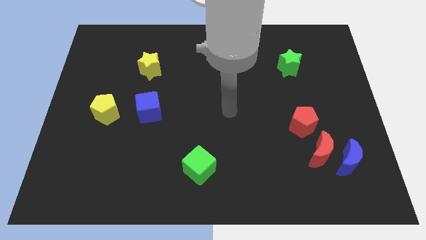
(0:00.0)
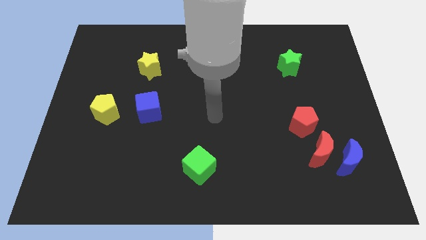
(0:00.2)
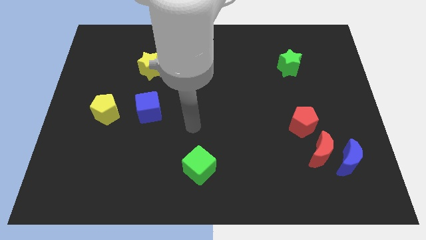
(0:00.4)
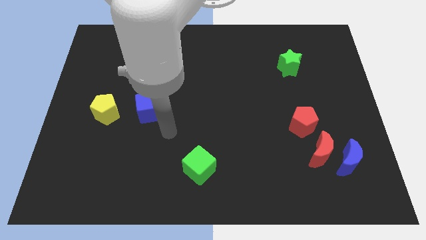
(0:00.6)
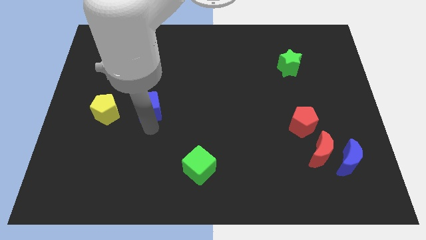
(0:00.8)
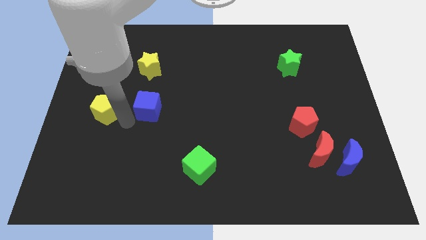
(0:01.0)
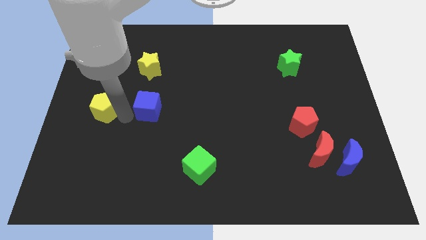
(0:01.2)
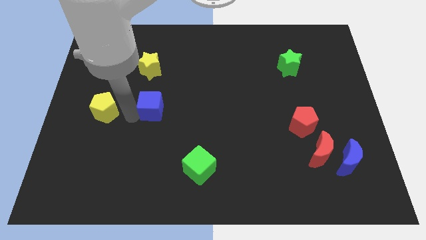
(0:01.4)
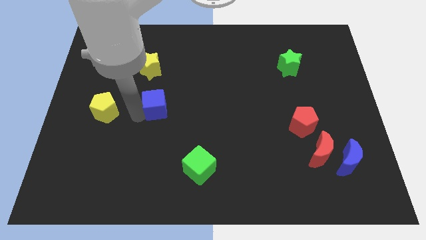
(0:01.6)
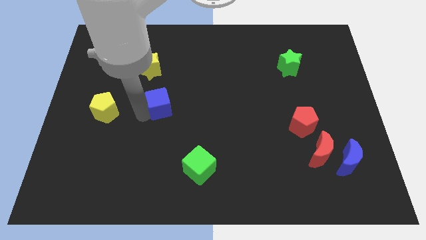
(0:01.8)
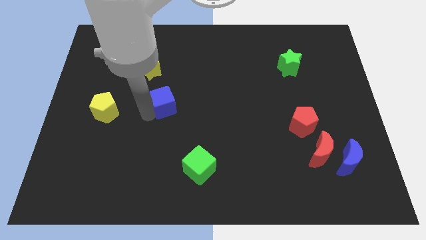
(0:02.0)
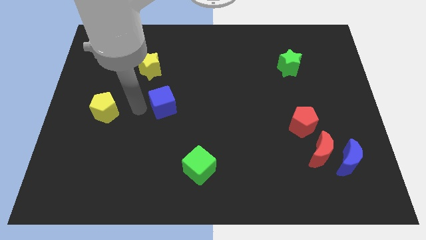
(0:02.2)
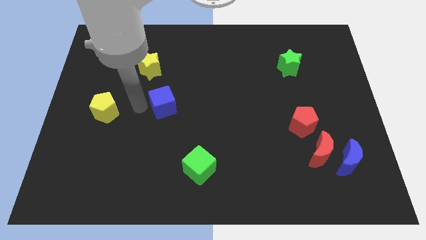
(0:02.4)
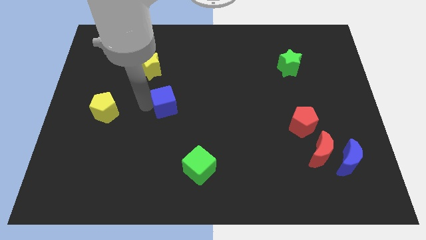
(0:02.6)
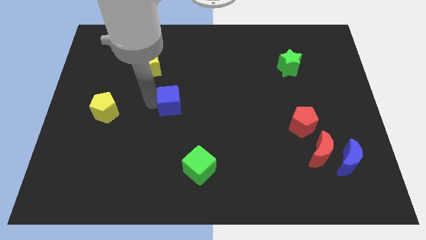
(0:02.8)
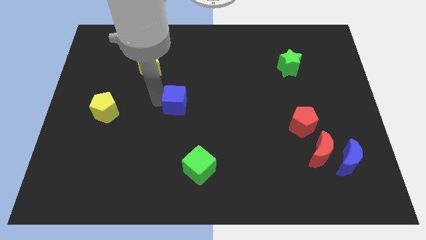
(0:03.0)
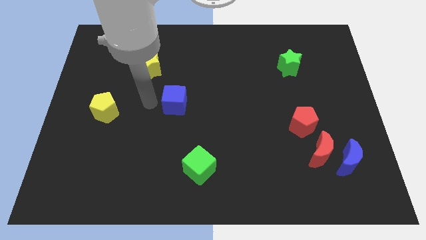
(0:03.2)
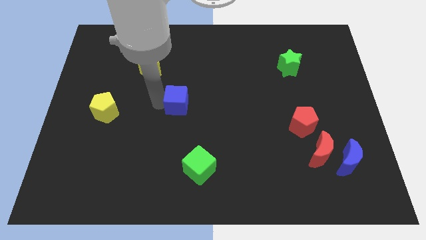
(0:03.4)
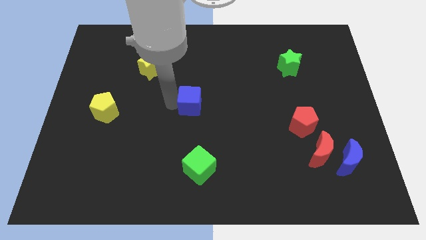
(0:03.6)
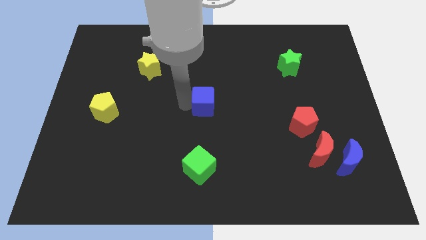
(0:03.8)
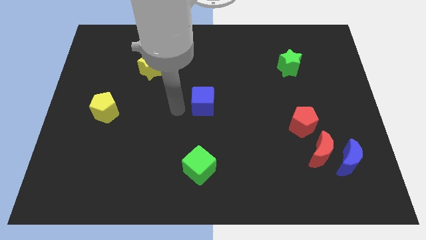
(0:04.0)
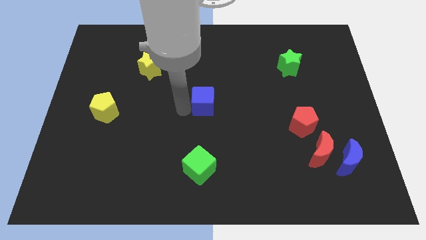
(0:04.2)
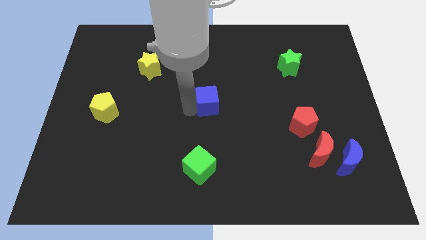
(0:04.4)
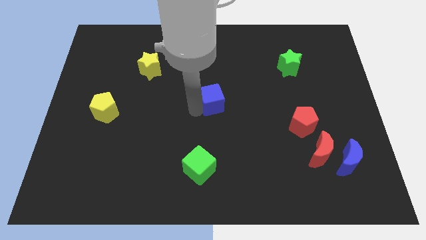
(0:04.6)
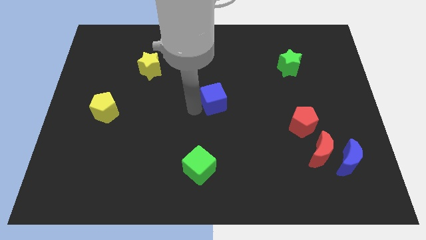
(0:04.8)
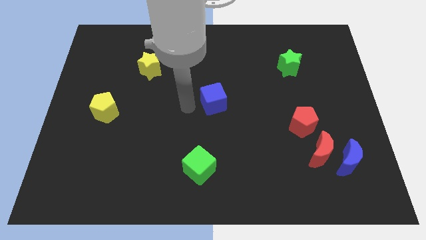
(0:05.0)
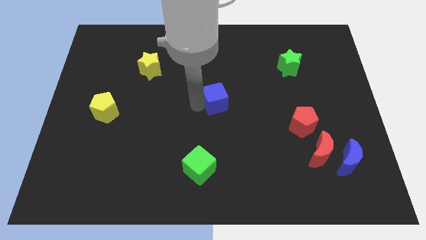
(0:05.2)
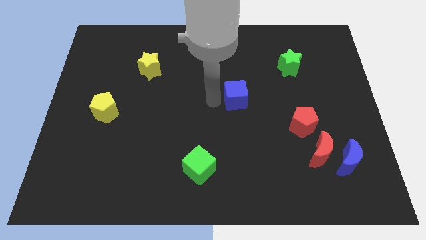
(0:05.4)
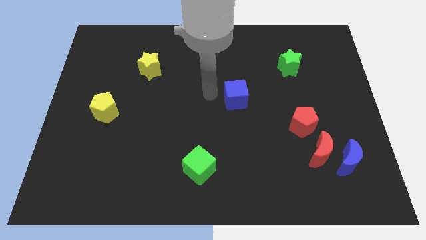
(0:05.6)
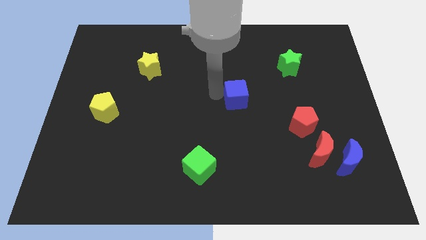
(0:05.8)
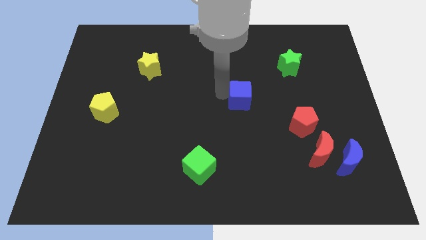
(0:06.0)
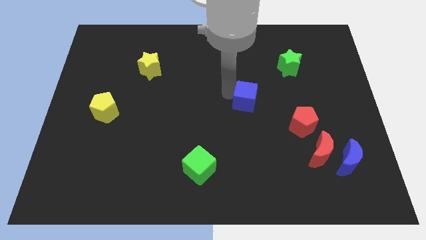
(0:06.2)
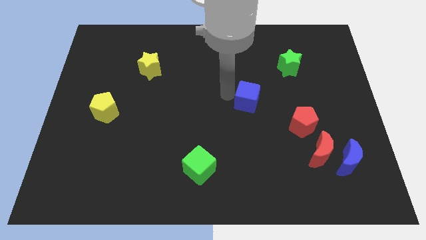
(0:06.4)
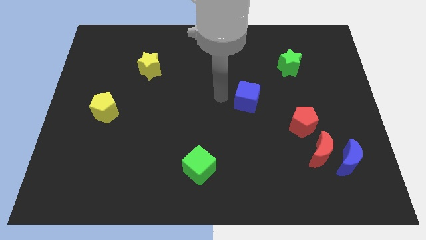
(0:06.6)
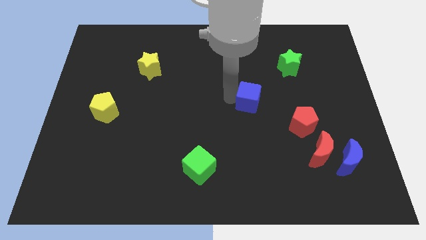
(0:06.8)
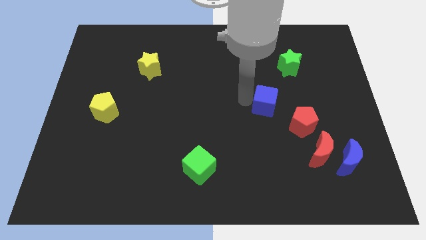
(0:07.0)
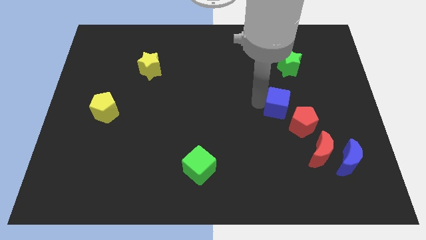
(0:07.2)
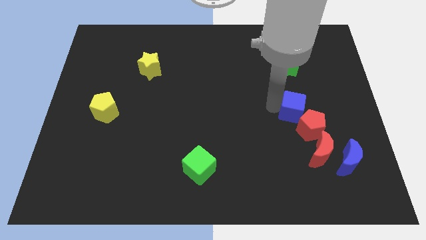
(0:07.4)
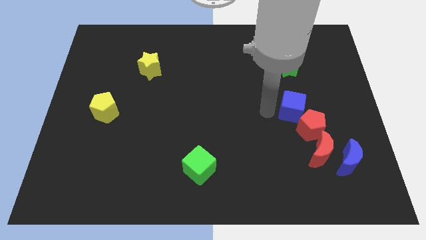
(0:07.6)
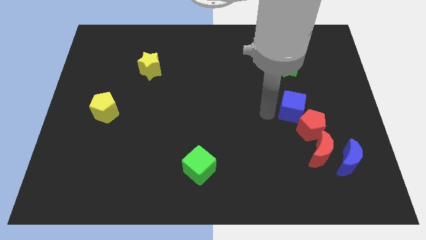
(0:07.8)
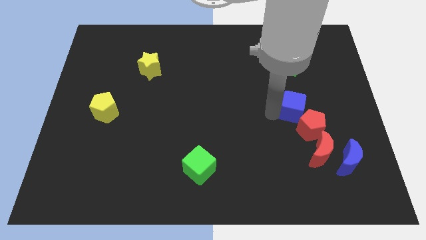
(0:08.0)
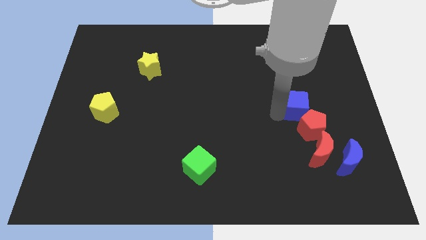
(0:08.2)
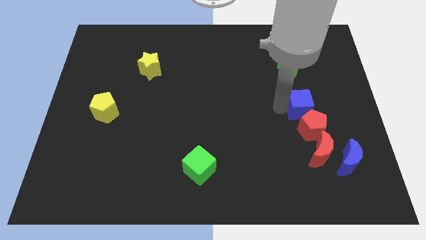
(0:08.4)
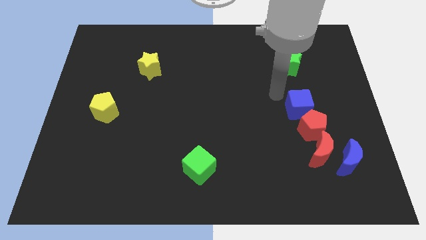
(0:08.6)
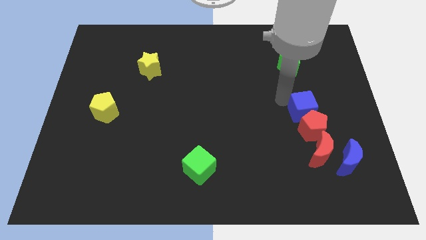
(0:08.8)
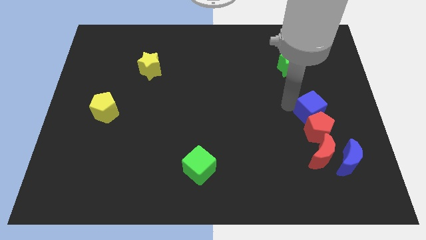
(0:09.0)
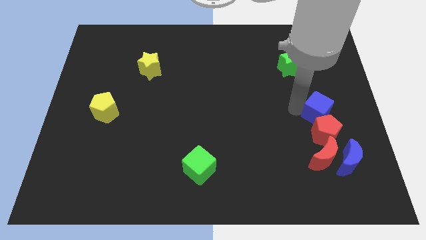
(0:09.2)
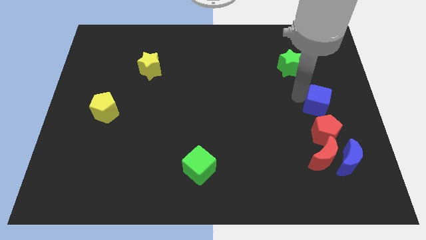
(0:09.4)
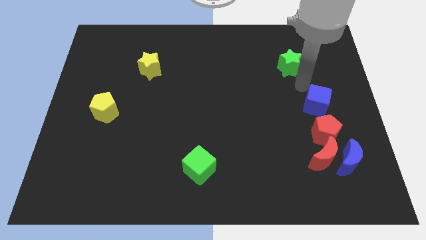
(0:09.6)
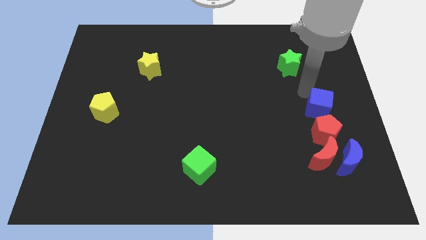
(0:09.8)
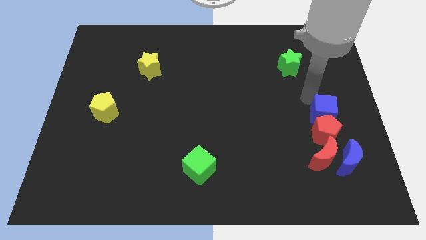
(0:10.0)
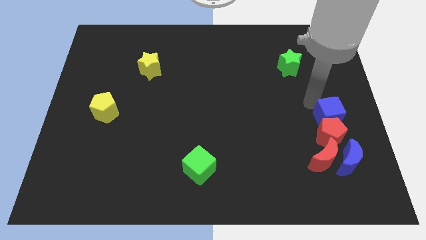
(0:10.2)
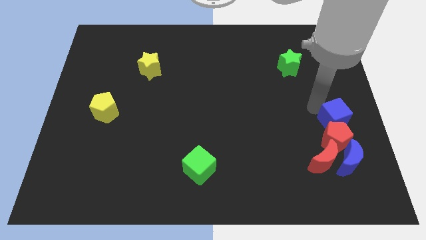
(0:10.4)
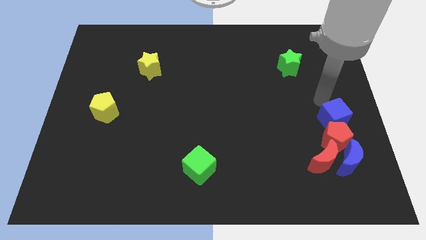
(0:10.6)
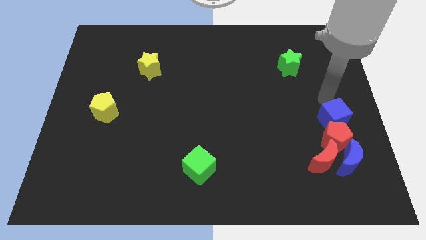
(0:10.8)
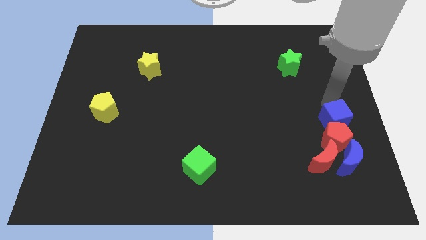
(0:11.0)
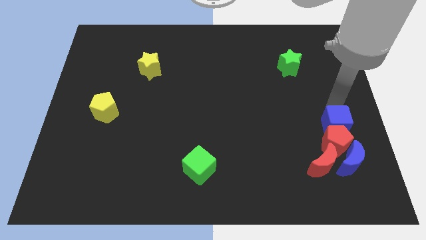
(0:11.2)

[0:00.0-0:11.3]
move the blue cube to the top right side of the red moon

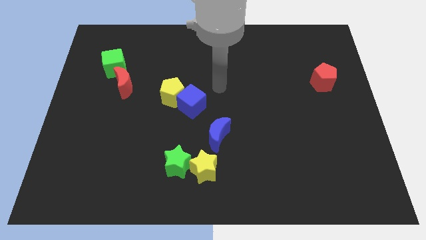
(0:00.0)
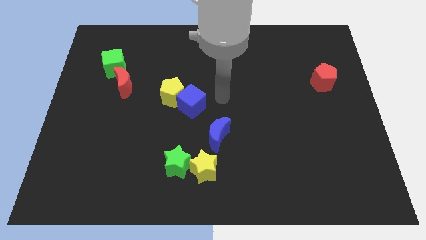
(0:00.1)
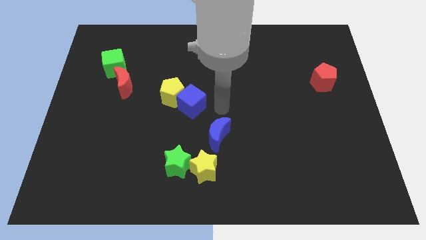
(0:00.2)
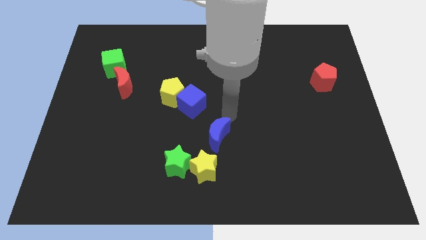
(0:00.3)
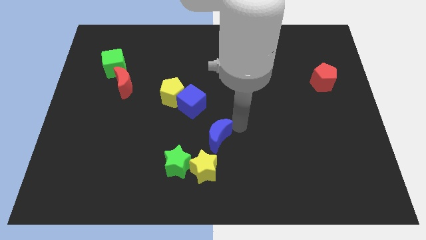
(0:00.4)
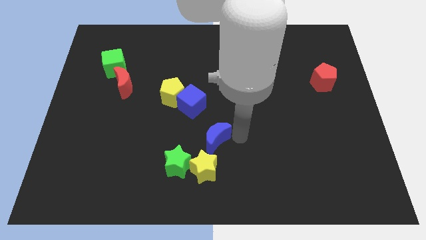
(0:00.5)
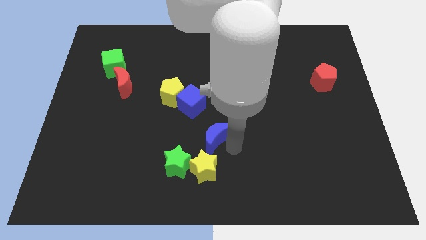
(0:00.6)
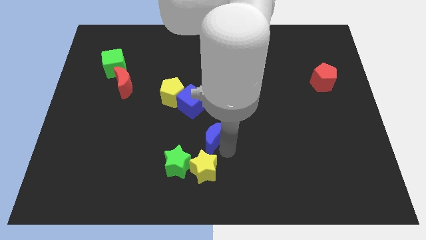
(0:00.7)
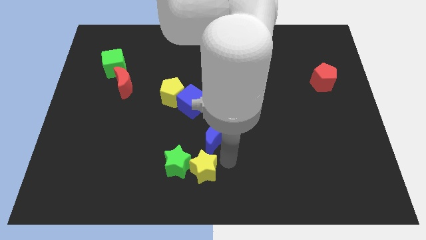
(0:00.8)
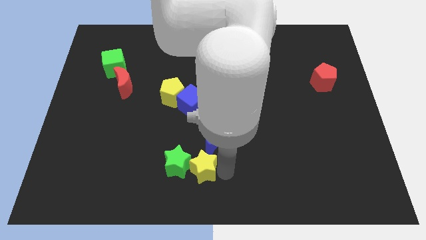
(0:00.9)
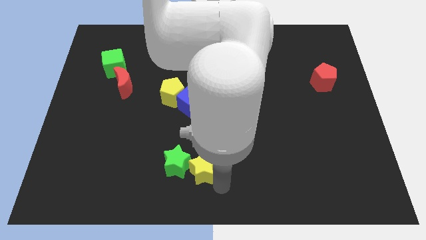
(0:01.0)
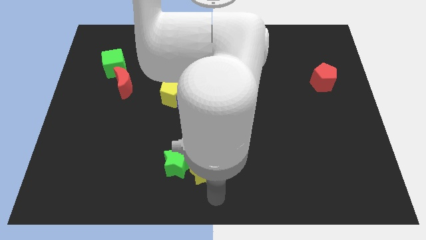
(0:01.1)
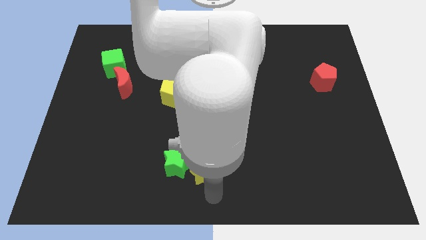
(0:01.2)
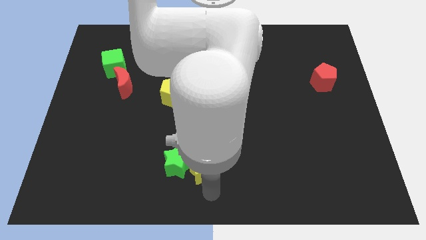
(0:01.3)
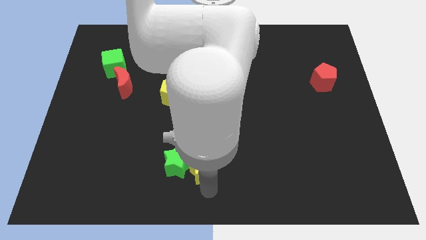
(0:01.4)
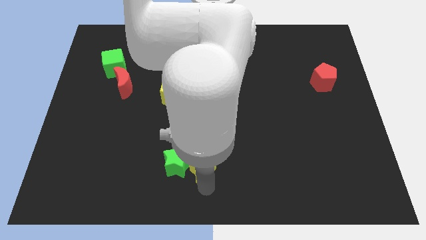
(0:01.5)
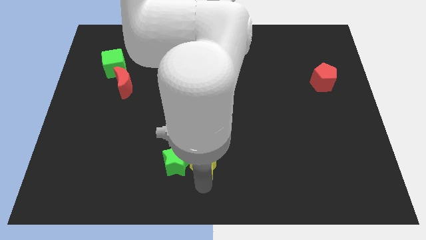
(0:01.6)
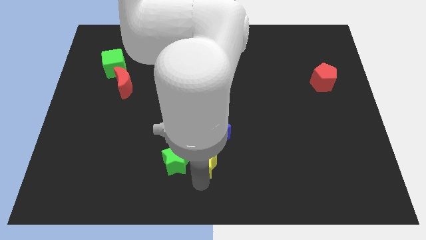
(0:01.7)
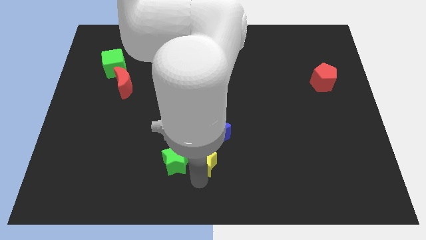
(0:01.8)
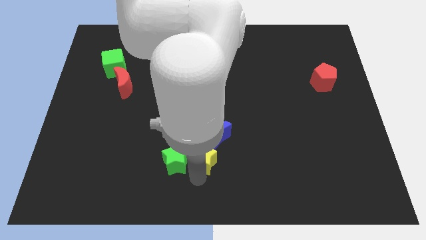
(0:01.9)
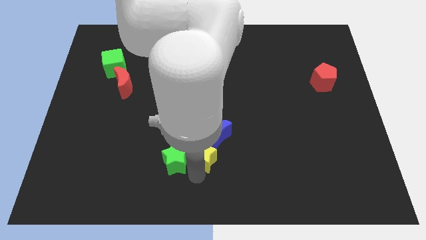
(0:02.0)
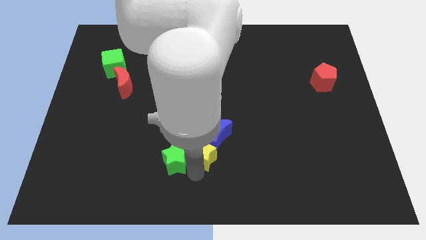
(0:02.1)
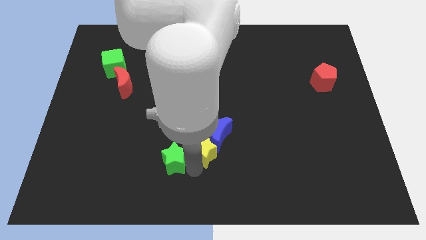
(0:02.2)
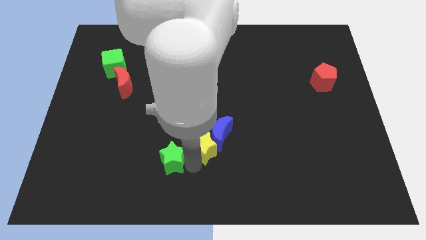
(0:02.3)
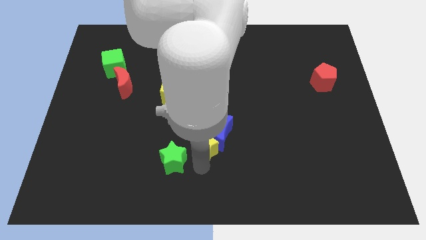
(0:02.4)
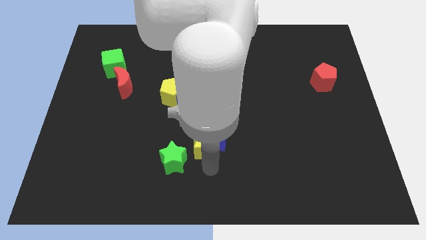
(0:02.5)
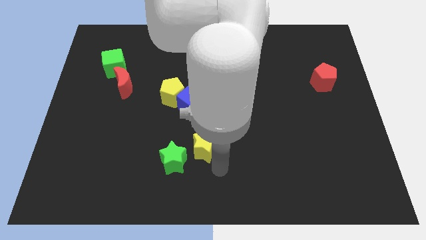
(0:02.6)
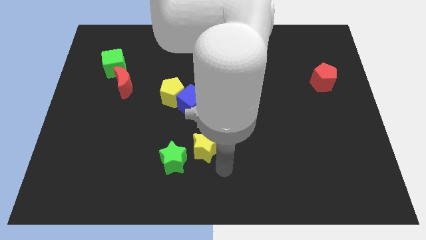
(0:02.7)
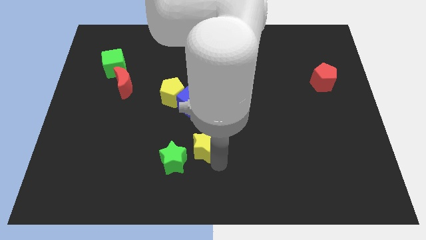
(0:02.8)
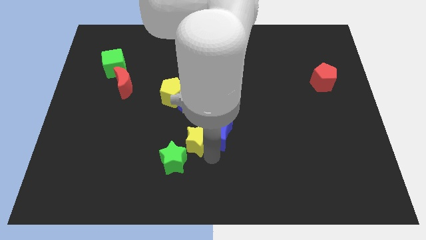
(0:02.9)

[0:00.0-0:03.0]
put the yellow star above the green star
